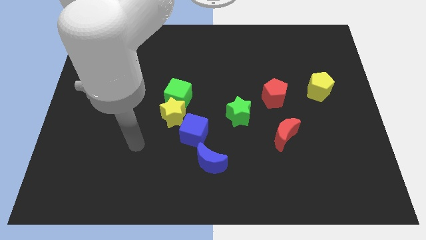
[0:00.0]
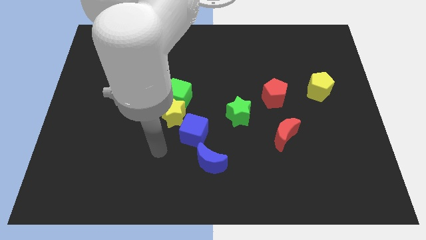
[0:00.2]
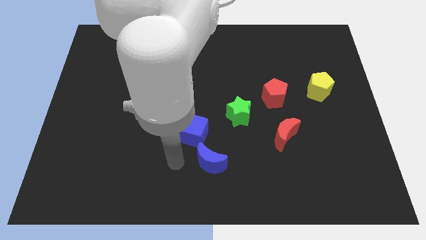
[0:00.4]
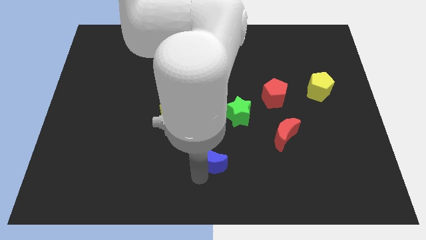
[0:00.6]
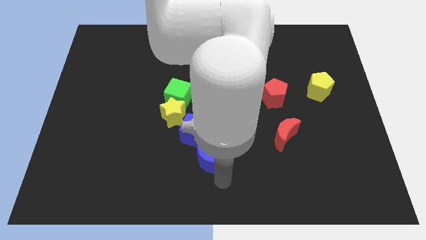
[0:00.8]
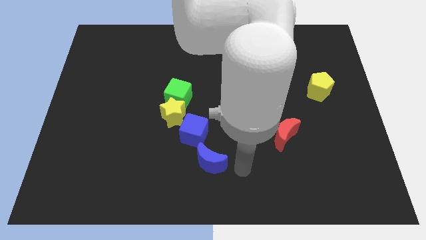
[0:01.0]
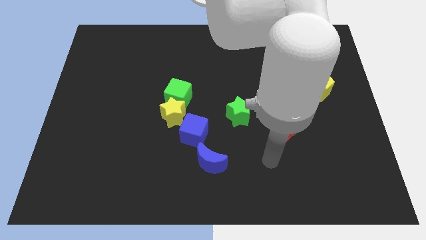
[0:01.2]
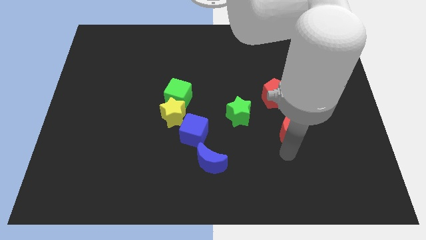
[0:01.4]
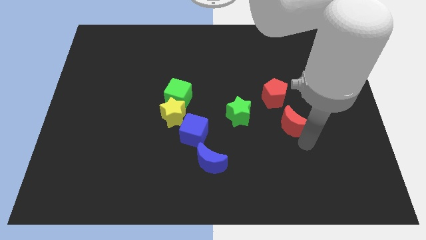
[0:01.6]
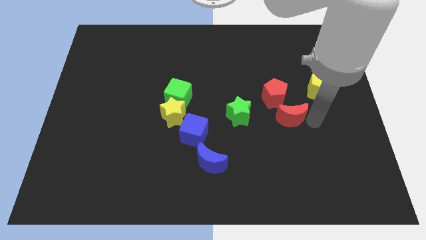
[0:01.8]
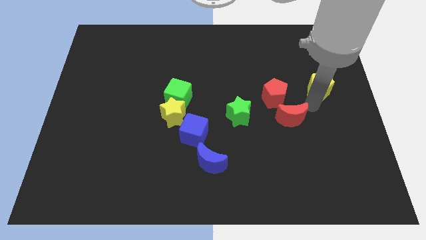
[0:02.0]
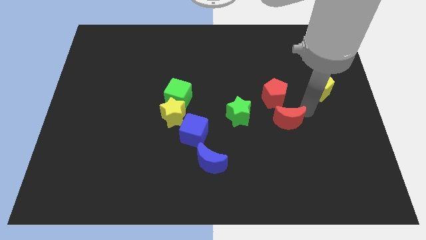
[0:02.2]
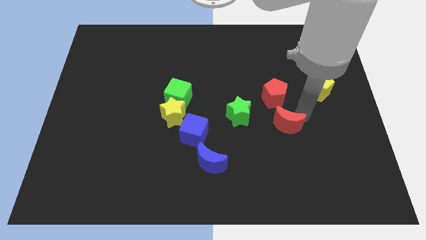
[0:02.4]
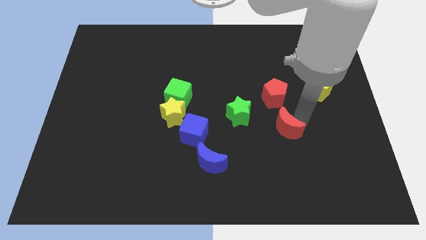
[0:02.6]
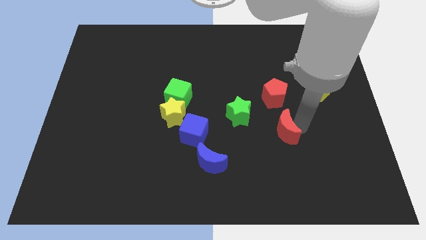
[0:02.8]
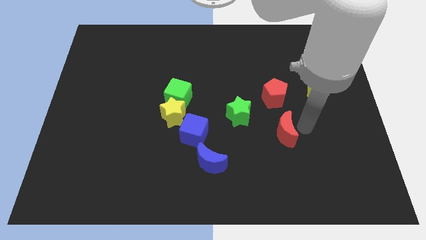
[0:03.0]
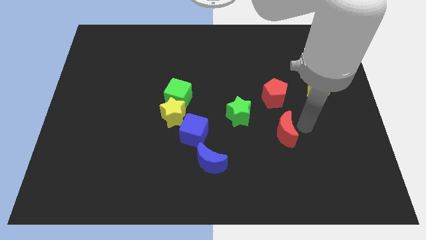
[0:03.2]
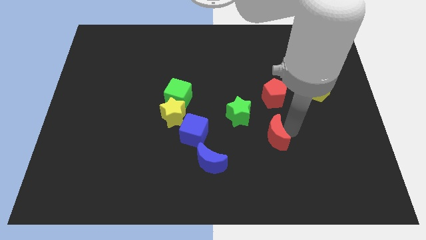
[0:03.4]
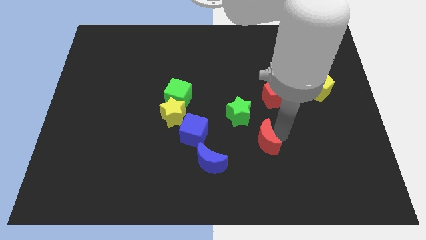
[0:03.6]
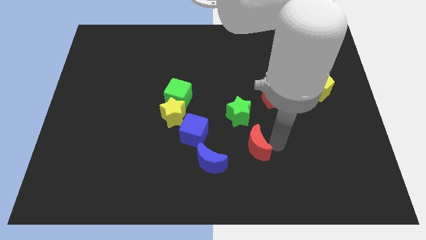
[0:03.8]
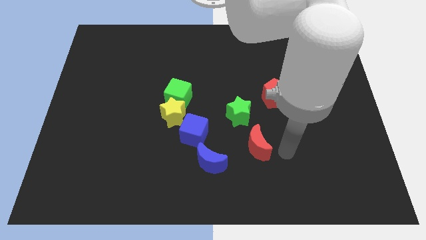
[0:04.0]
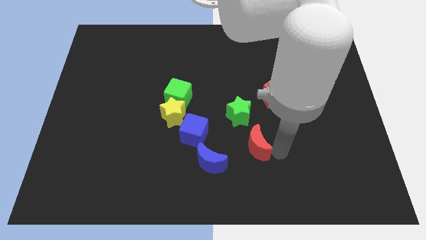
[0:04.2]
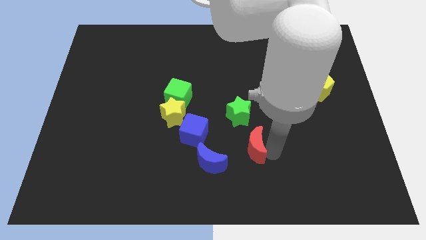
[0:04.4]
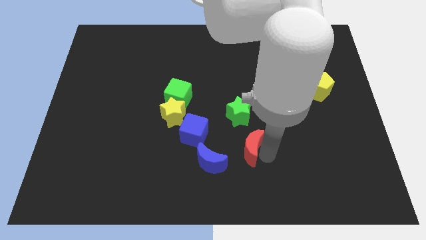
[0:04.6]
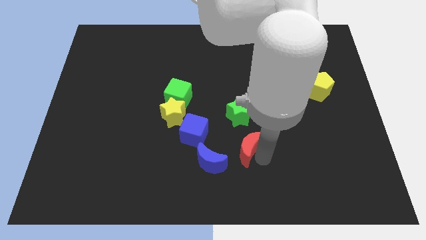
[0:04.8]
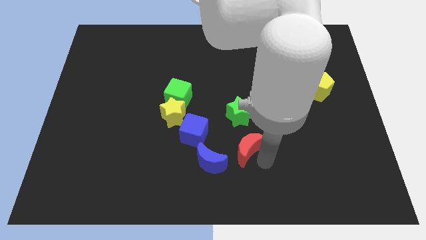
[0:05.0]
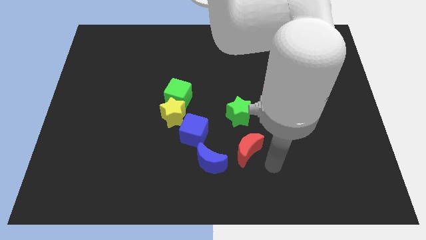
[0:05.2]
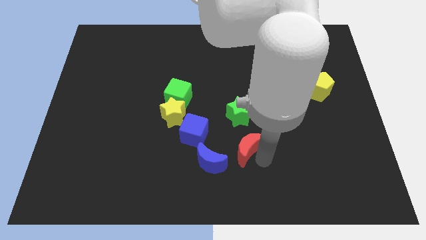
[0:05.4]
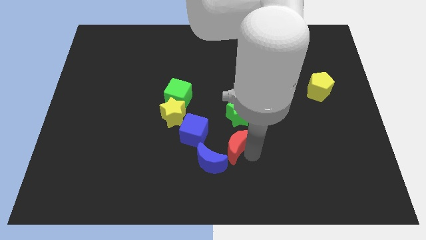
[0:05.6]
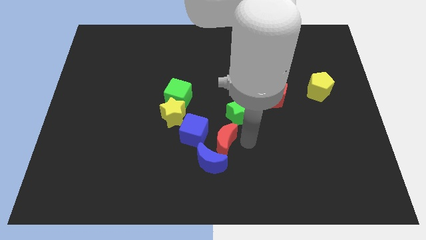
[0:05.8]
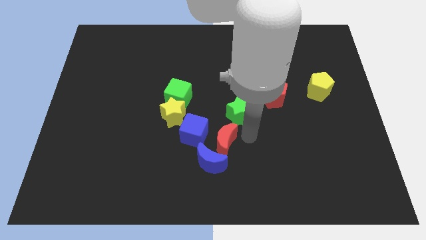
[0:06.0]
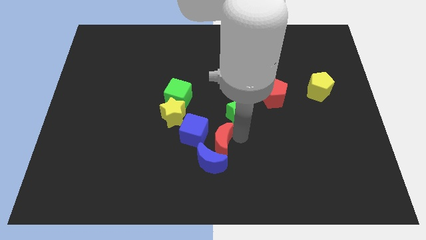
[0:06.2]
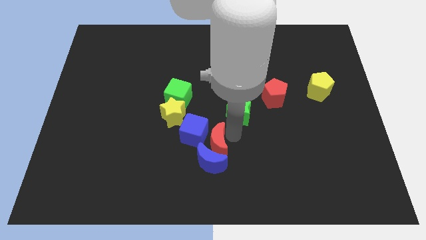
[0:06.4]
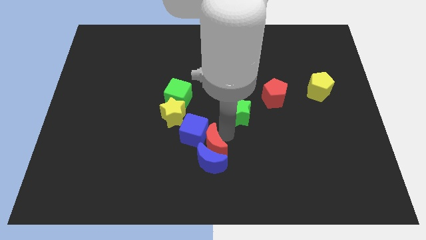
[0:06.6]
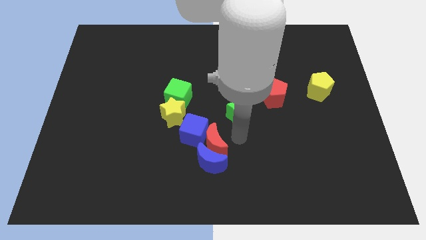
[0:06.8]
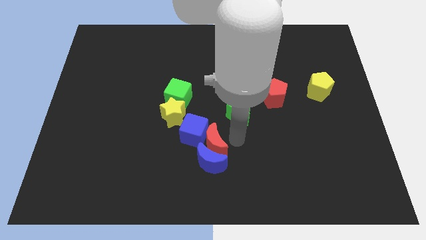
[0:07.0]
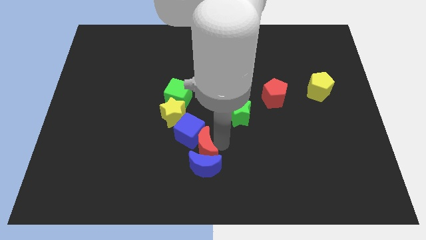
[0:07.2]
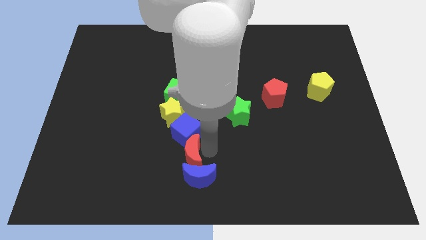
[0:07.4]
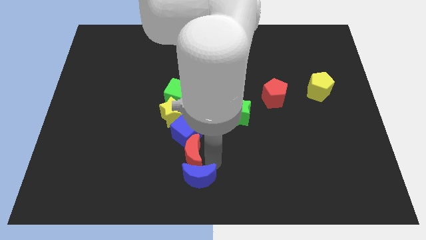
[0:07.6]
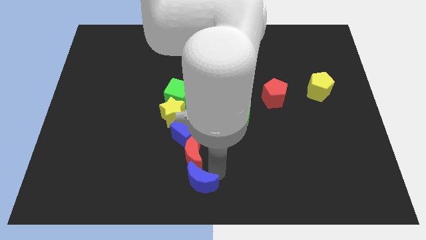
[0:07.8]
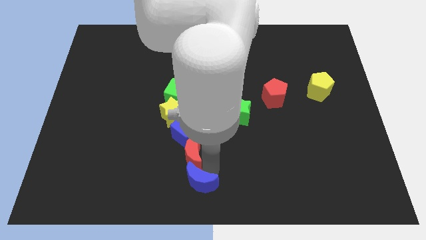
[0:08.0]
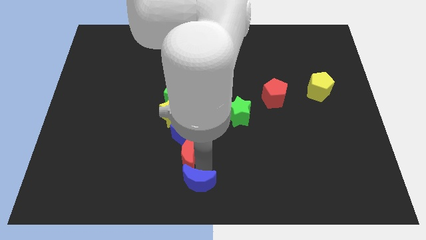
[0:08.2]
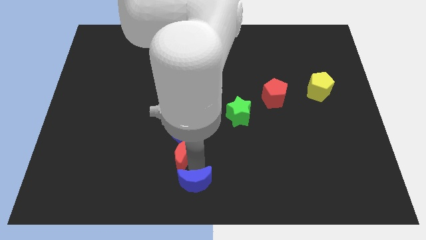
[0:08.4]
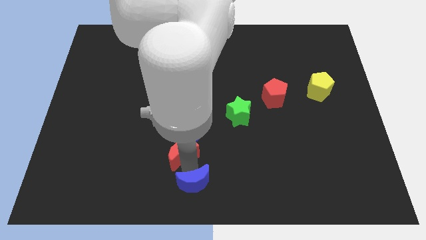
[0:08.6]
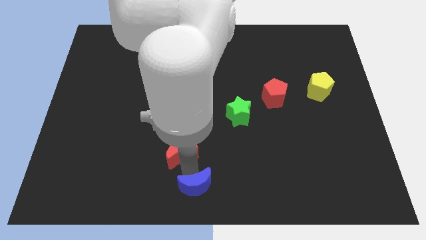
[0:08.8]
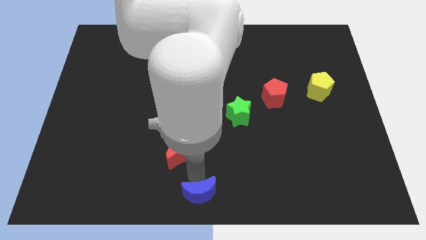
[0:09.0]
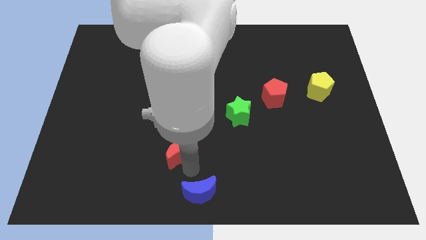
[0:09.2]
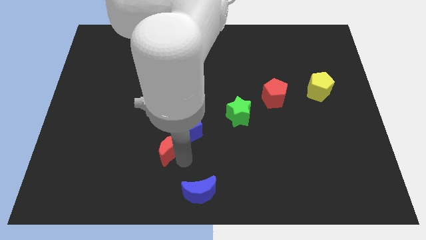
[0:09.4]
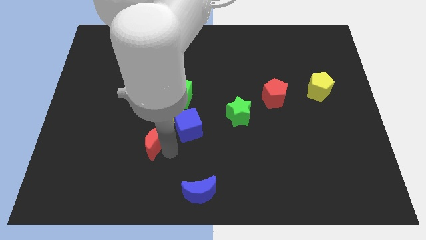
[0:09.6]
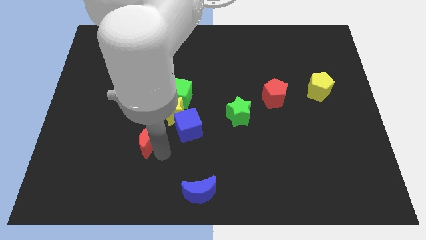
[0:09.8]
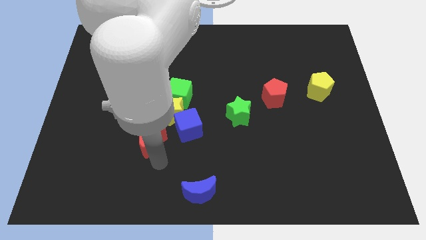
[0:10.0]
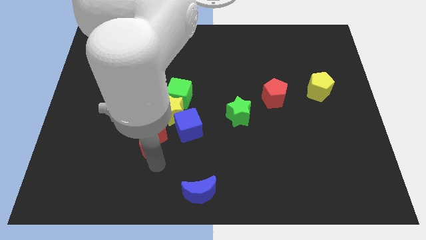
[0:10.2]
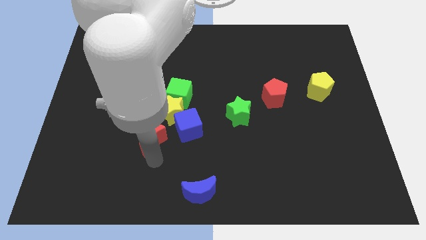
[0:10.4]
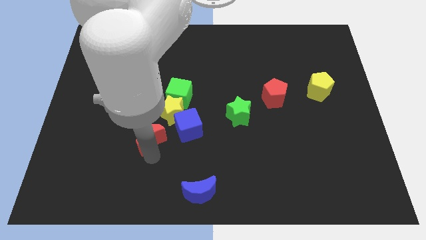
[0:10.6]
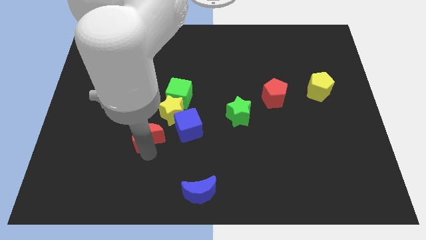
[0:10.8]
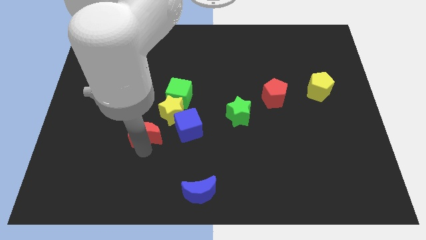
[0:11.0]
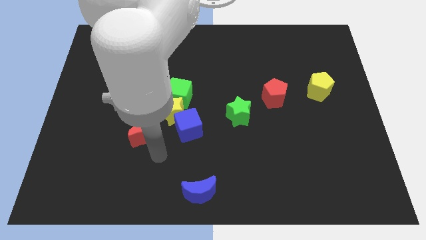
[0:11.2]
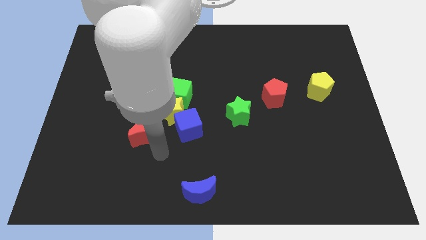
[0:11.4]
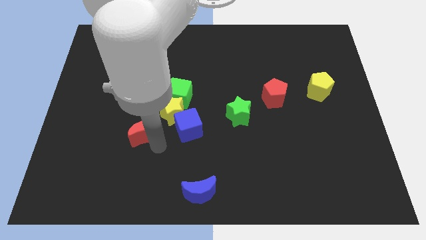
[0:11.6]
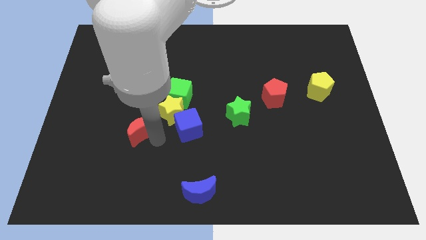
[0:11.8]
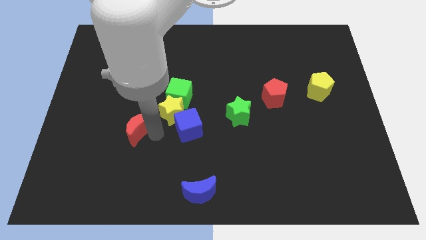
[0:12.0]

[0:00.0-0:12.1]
move the red moon to the left side of the yellow star

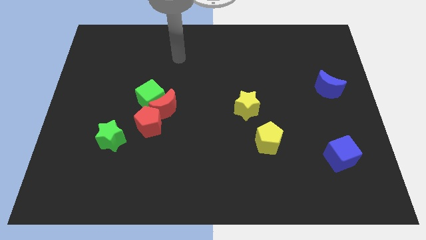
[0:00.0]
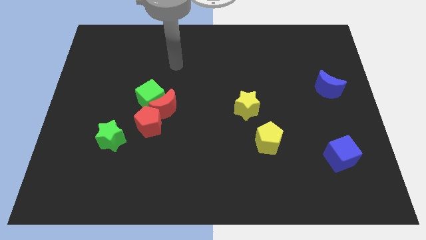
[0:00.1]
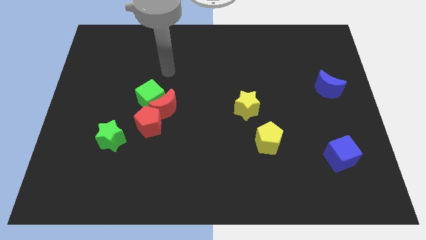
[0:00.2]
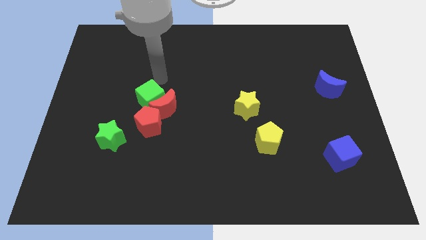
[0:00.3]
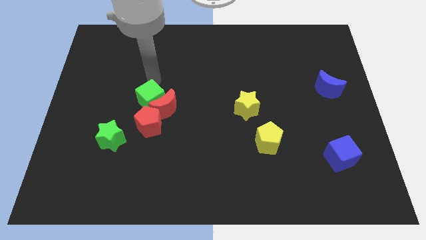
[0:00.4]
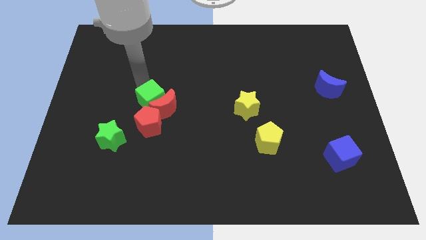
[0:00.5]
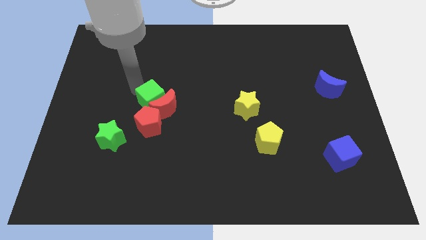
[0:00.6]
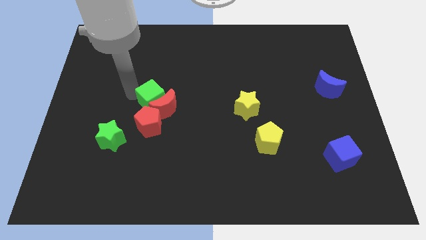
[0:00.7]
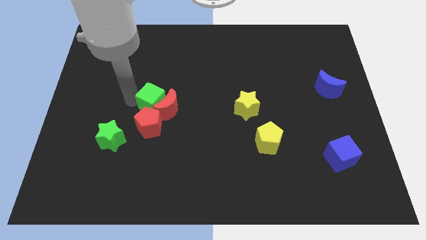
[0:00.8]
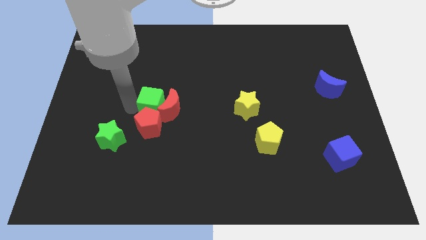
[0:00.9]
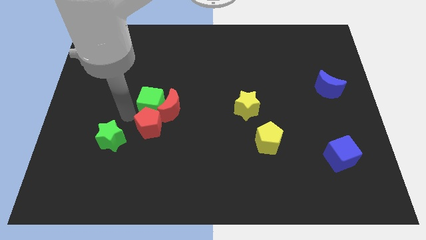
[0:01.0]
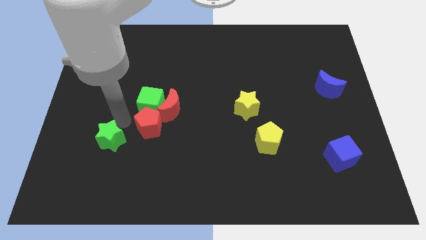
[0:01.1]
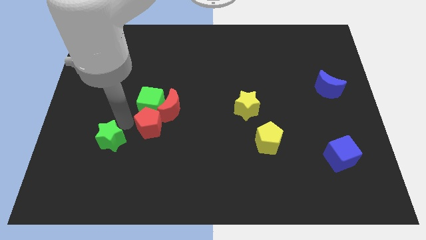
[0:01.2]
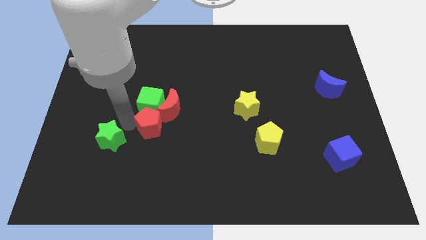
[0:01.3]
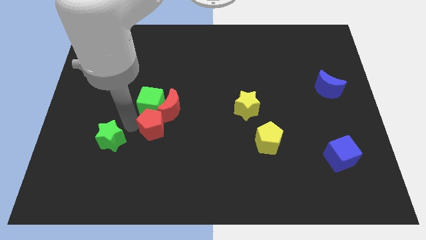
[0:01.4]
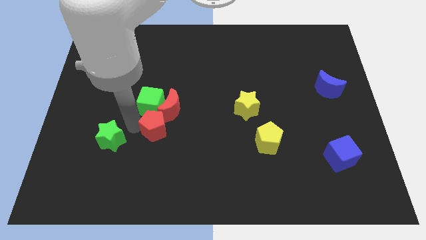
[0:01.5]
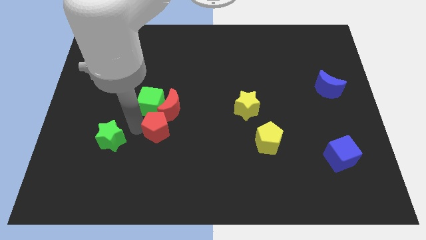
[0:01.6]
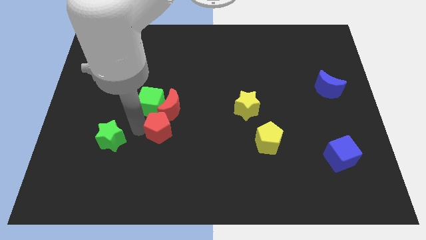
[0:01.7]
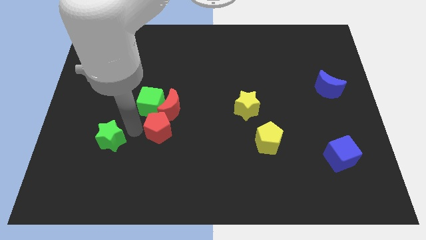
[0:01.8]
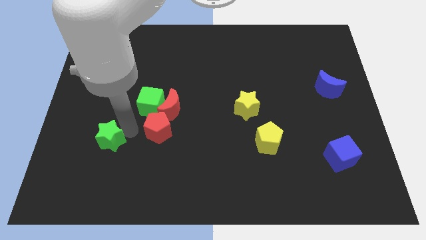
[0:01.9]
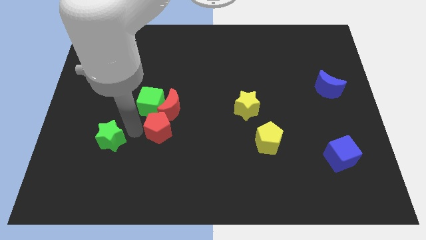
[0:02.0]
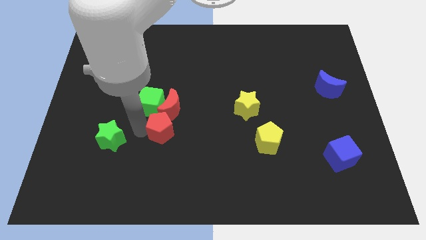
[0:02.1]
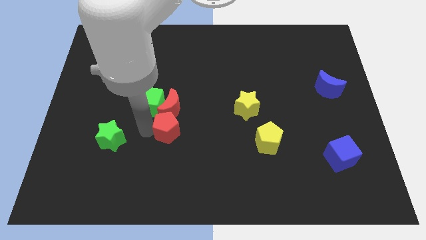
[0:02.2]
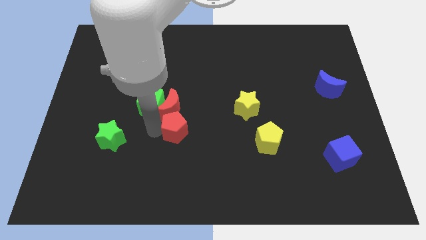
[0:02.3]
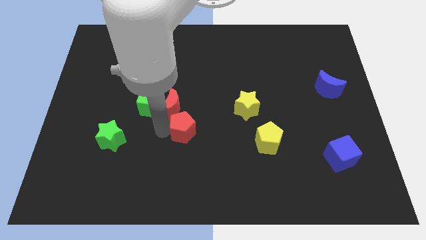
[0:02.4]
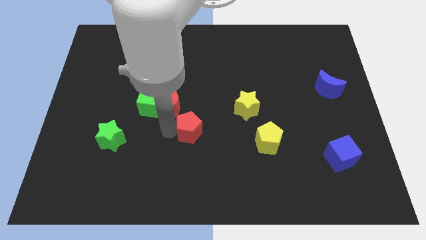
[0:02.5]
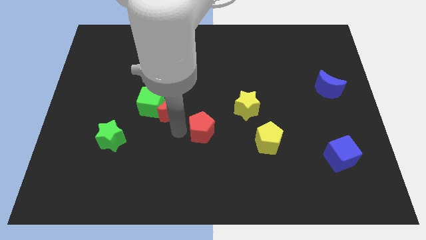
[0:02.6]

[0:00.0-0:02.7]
put the red pentagon to the bottom left of the yellow star
